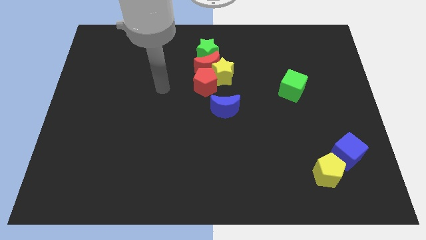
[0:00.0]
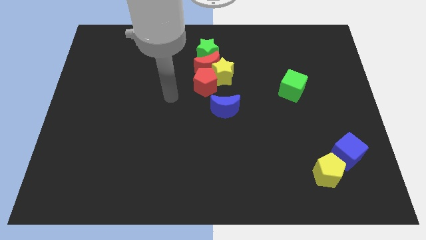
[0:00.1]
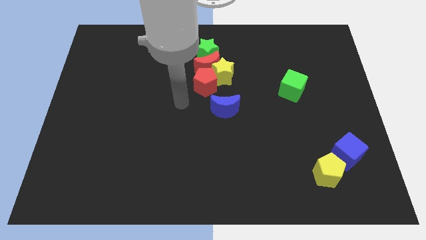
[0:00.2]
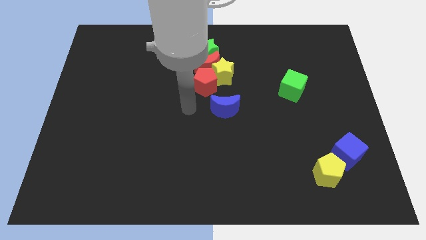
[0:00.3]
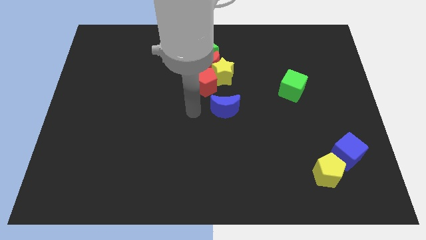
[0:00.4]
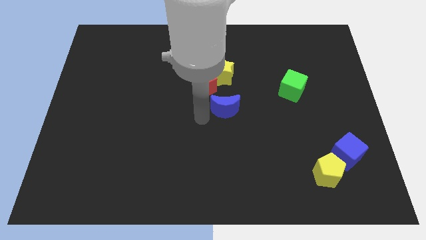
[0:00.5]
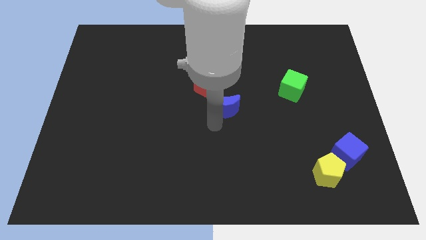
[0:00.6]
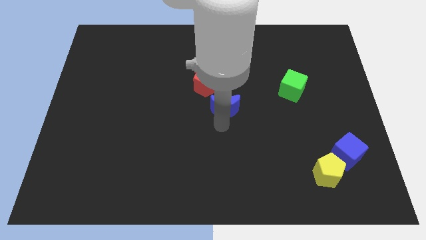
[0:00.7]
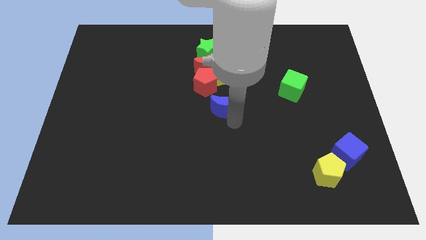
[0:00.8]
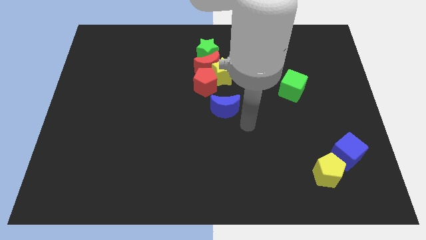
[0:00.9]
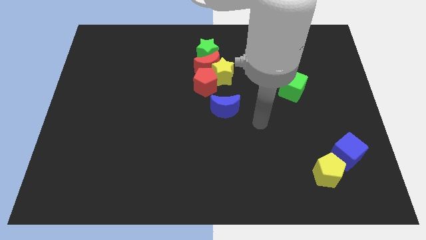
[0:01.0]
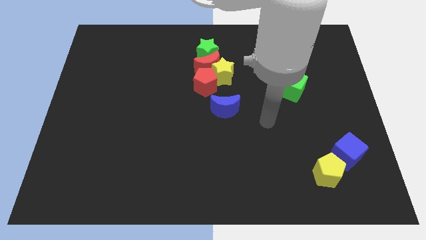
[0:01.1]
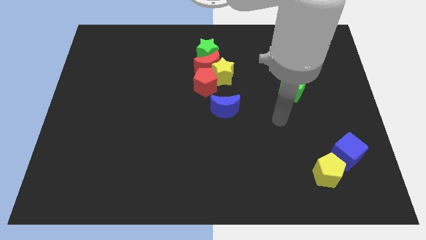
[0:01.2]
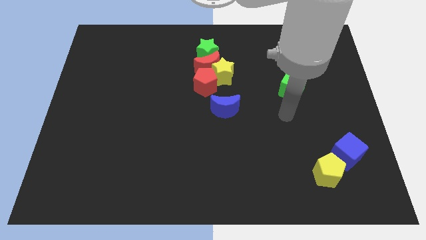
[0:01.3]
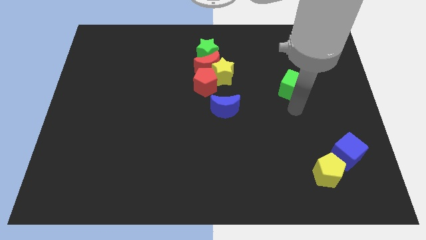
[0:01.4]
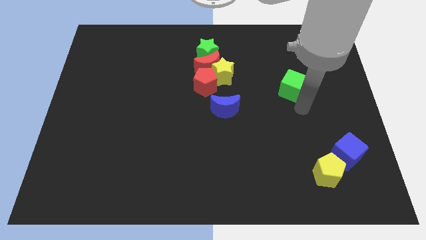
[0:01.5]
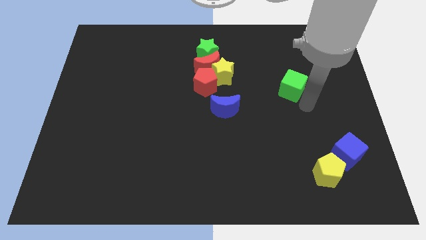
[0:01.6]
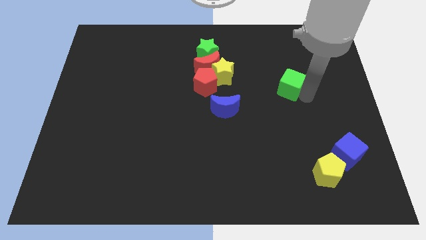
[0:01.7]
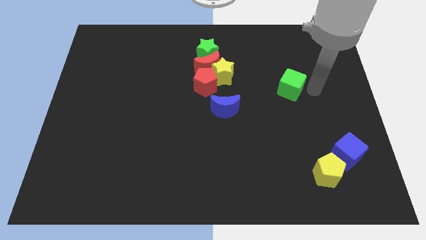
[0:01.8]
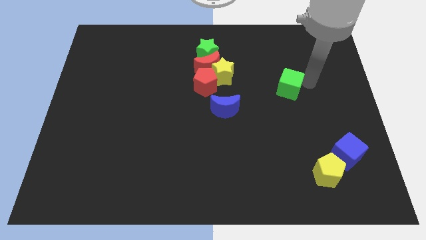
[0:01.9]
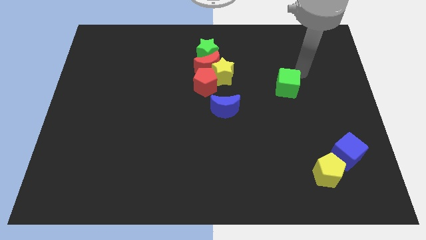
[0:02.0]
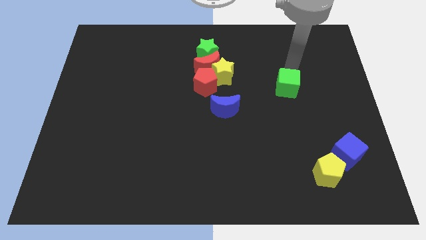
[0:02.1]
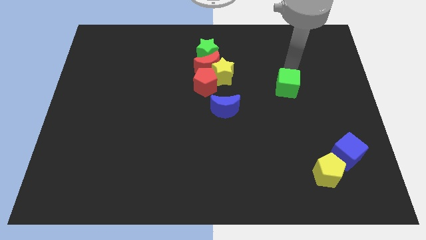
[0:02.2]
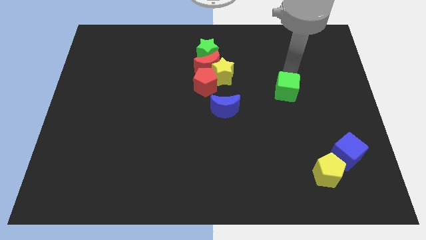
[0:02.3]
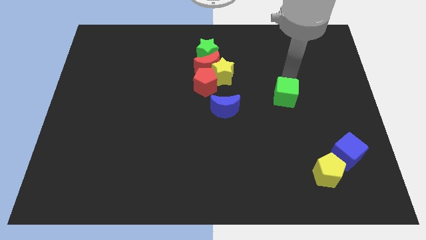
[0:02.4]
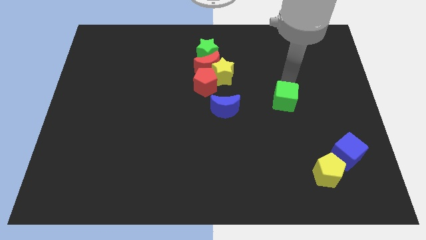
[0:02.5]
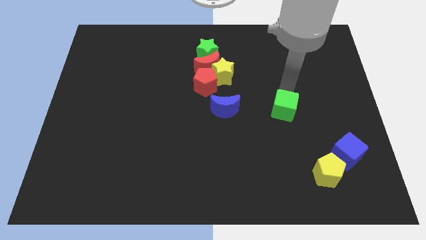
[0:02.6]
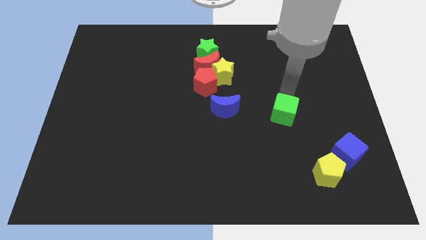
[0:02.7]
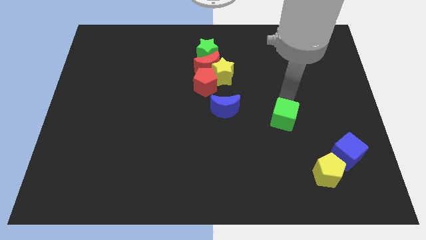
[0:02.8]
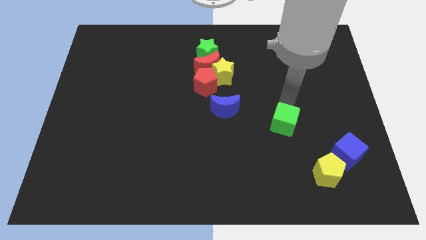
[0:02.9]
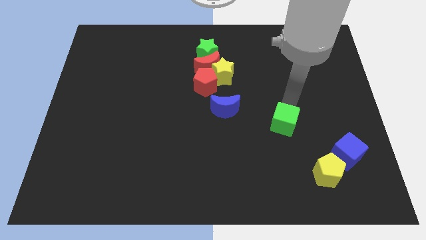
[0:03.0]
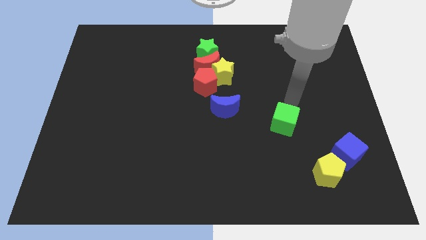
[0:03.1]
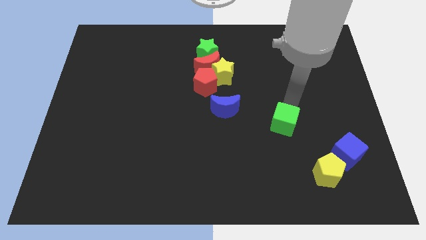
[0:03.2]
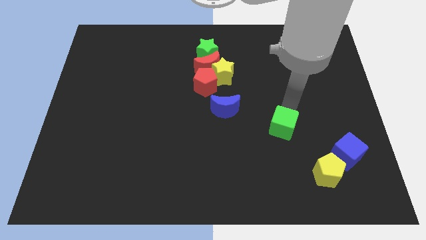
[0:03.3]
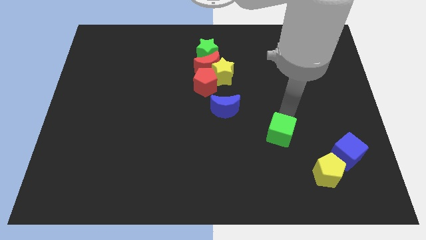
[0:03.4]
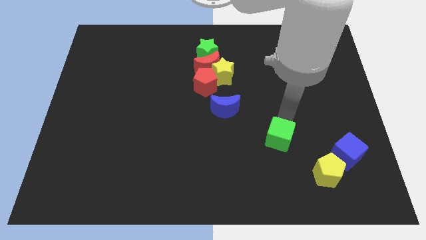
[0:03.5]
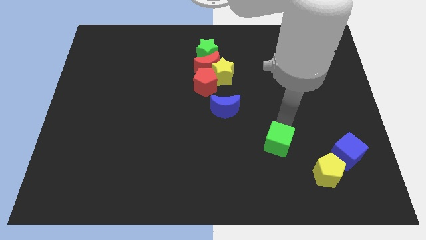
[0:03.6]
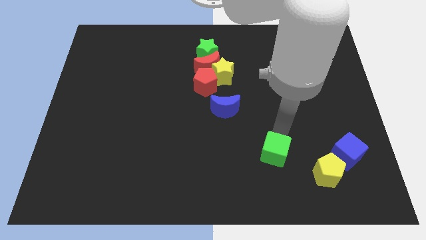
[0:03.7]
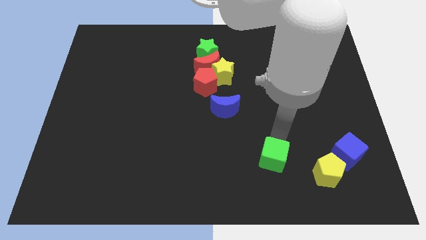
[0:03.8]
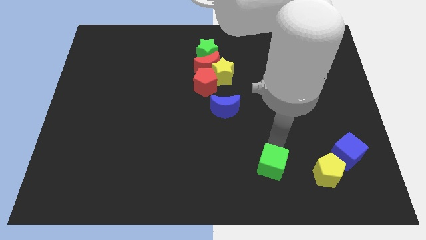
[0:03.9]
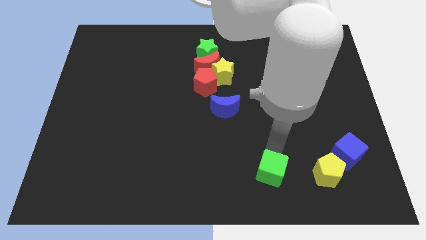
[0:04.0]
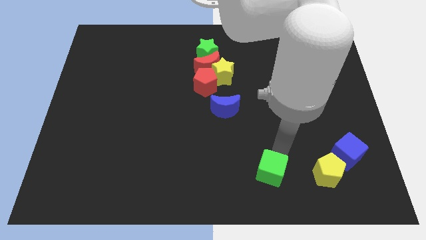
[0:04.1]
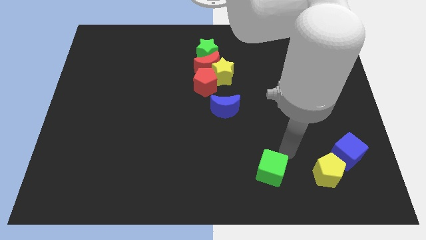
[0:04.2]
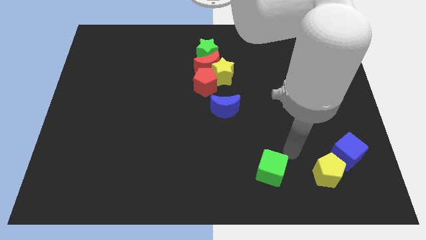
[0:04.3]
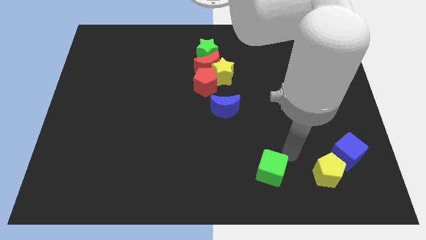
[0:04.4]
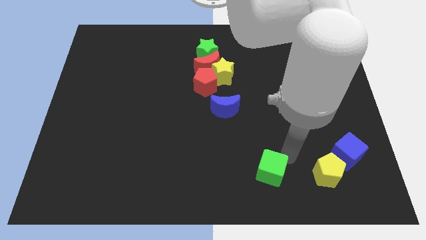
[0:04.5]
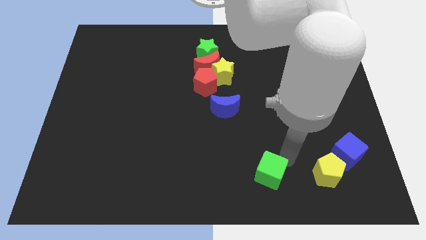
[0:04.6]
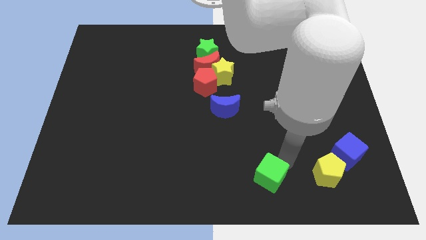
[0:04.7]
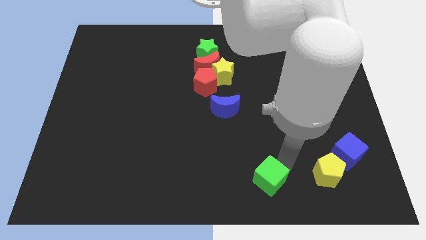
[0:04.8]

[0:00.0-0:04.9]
slide the green cube to the bottom

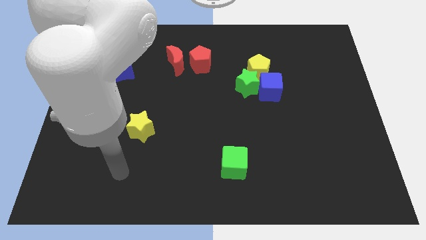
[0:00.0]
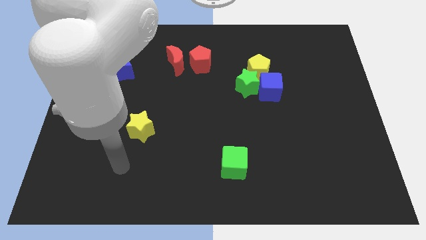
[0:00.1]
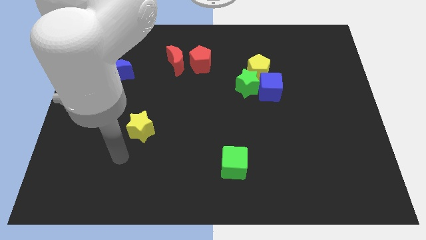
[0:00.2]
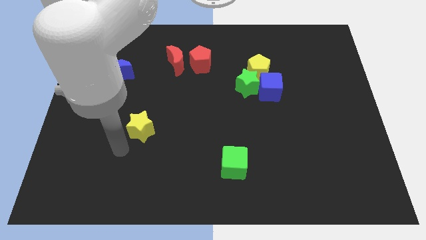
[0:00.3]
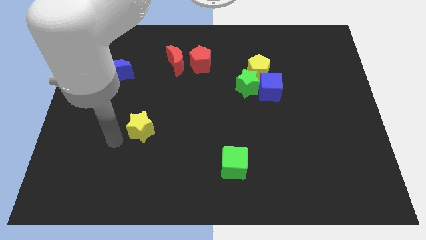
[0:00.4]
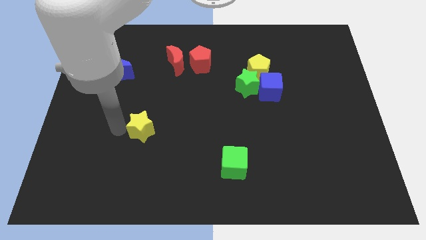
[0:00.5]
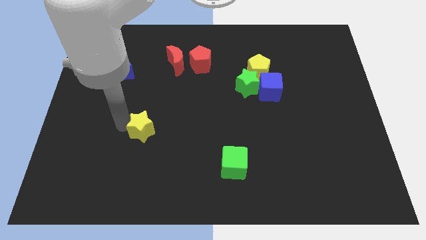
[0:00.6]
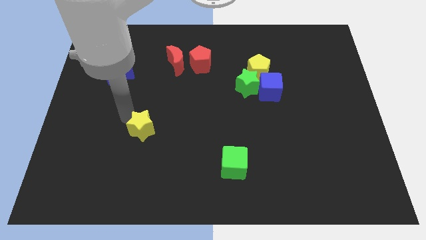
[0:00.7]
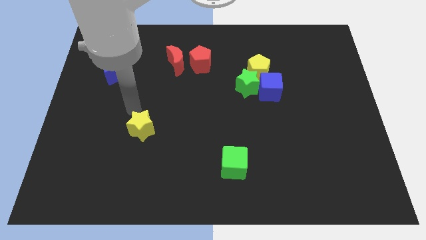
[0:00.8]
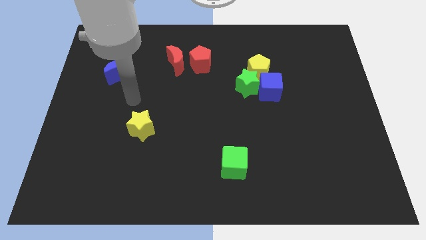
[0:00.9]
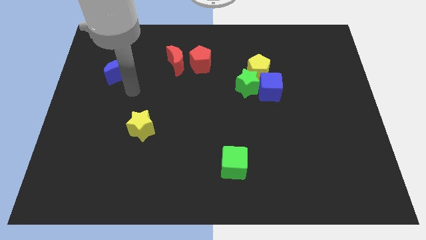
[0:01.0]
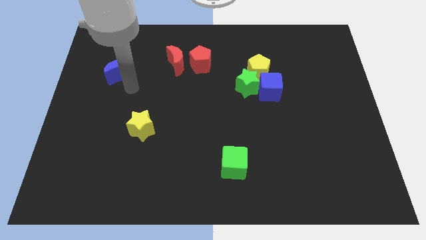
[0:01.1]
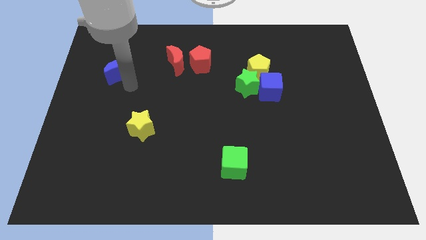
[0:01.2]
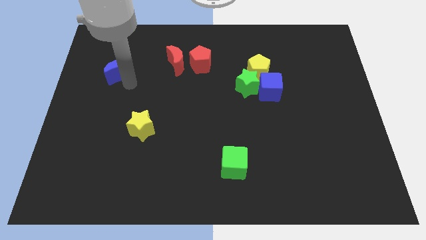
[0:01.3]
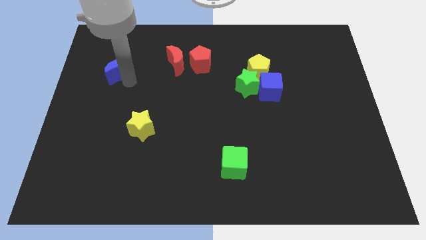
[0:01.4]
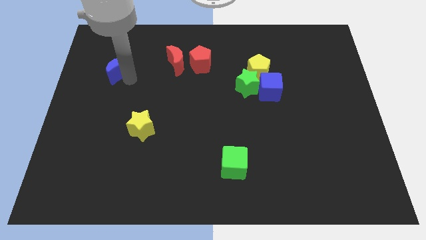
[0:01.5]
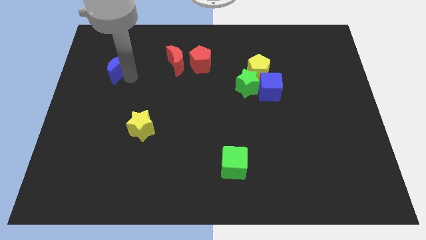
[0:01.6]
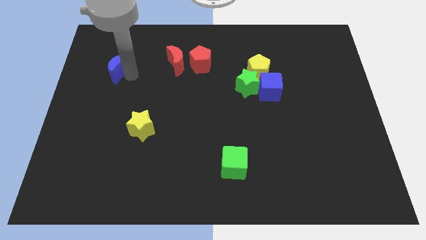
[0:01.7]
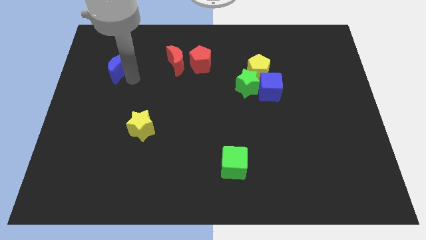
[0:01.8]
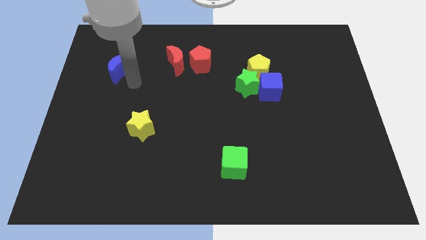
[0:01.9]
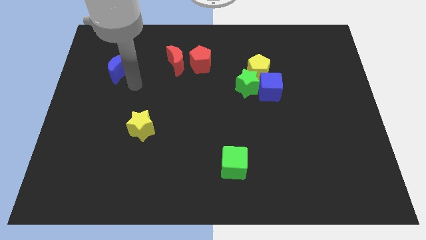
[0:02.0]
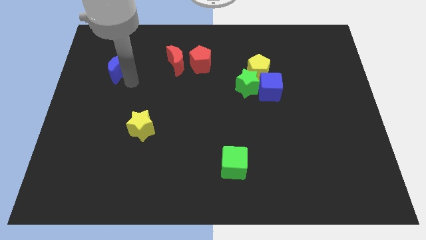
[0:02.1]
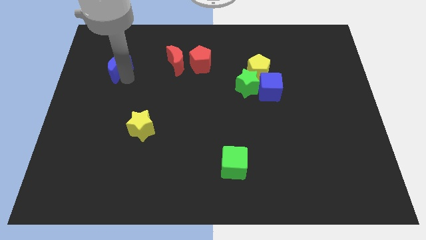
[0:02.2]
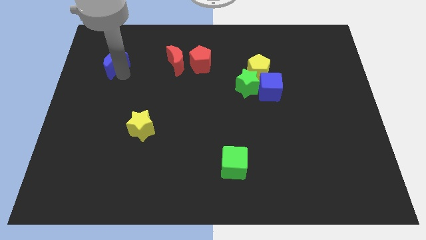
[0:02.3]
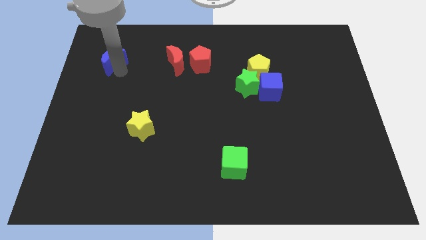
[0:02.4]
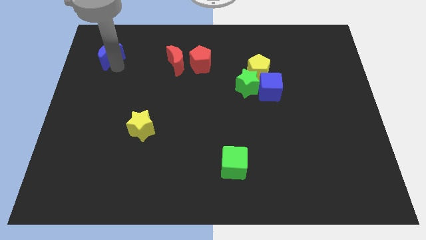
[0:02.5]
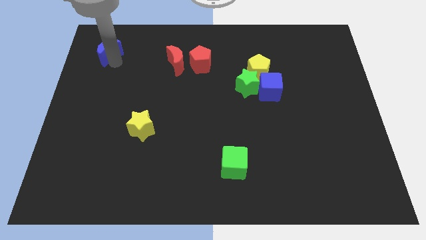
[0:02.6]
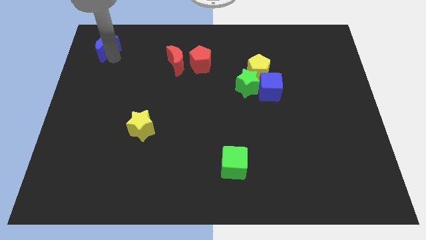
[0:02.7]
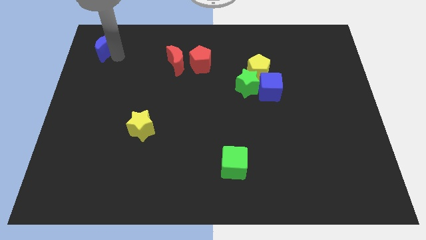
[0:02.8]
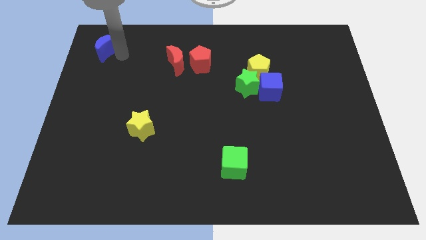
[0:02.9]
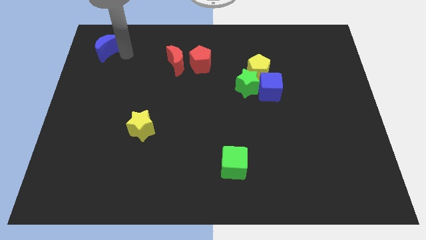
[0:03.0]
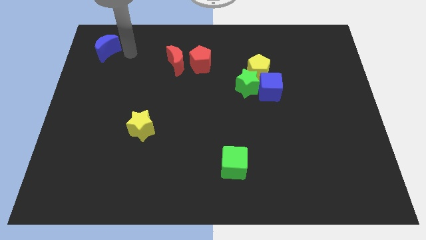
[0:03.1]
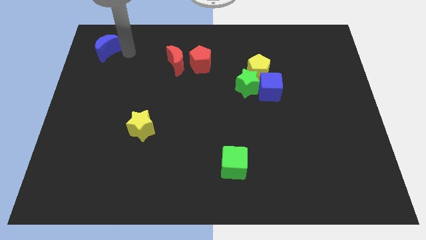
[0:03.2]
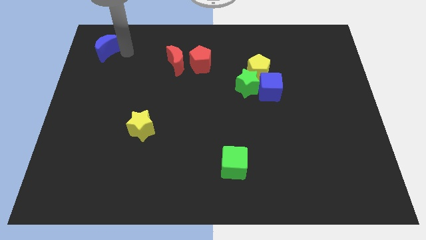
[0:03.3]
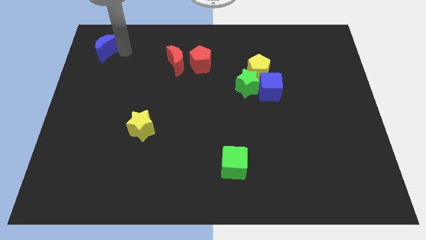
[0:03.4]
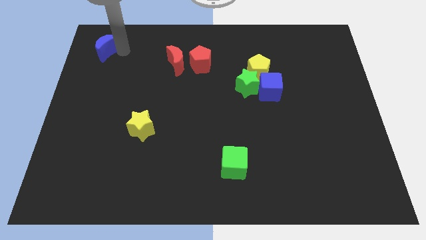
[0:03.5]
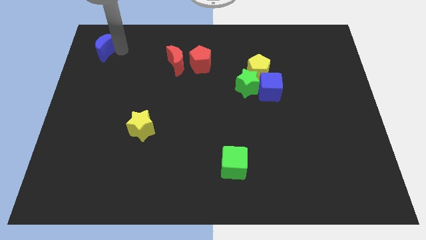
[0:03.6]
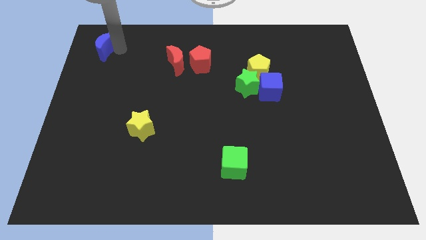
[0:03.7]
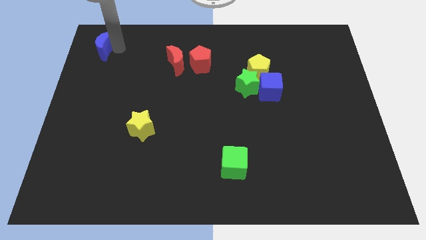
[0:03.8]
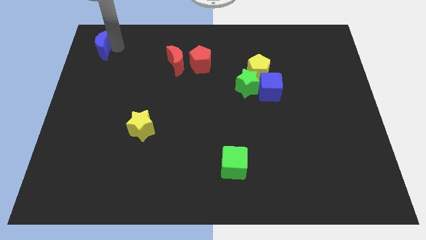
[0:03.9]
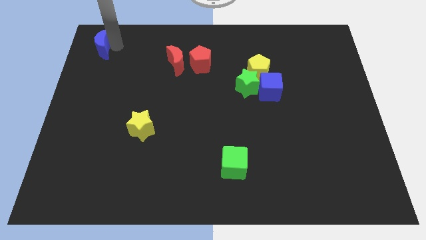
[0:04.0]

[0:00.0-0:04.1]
push the blue moon to the top left of the board
